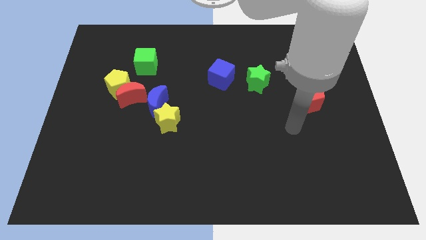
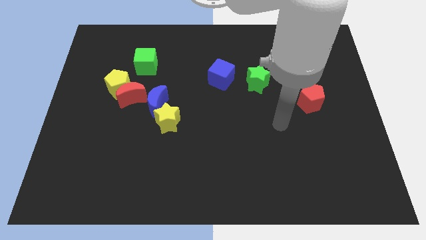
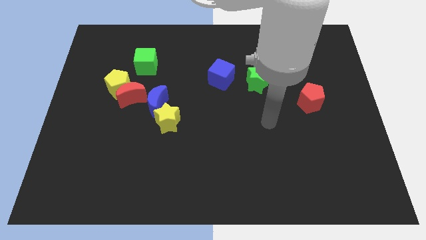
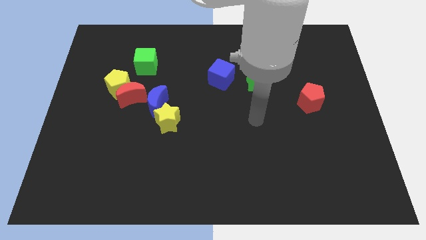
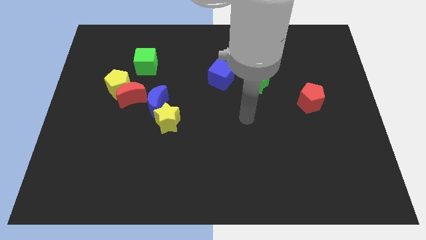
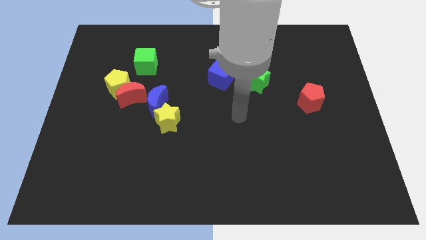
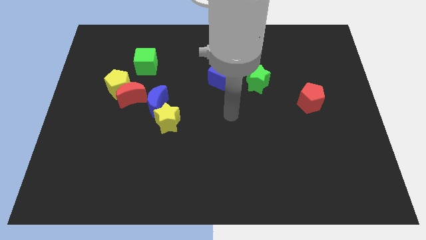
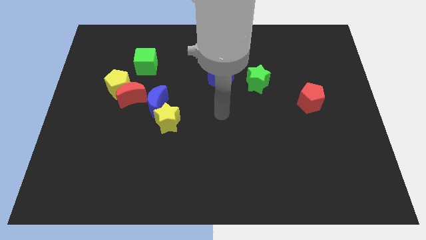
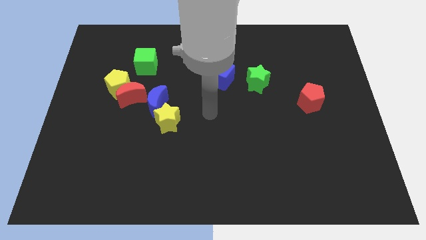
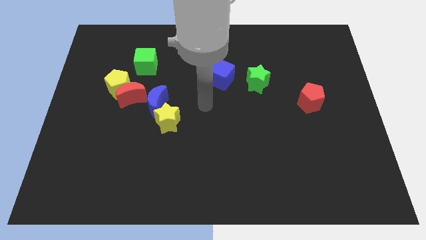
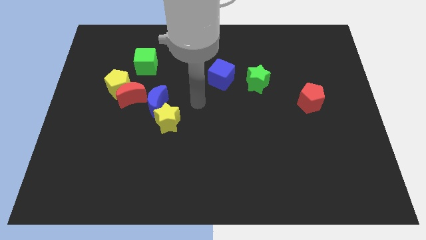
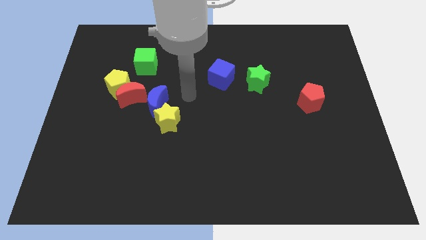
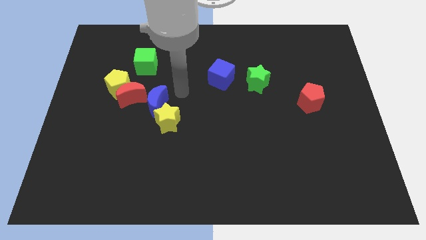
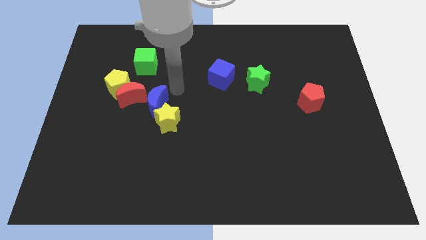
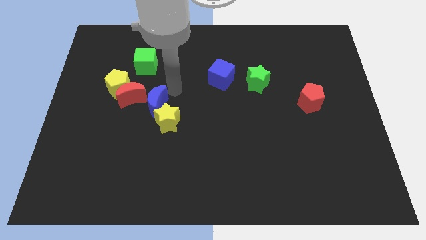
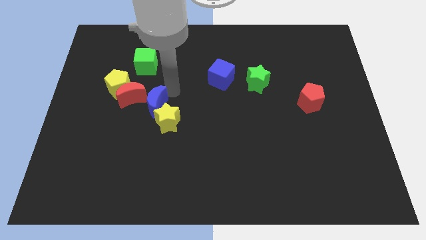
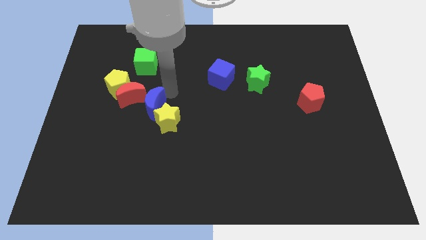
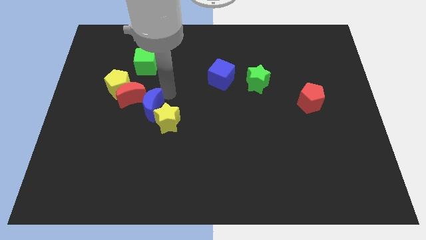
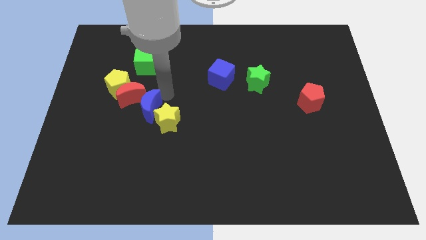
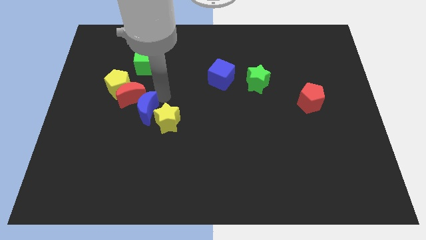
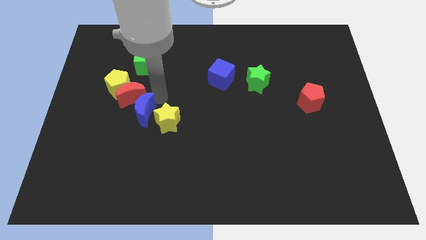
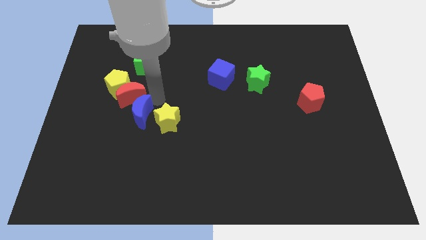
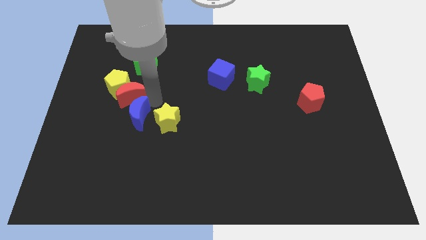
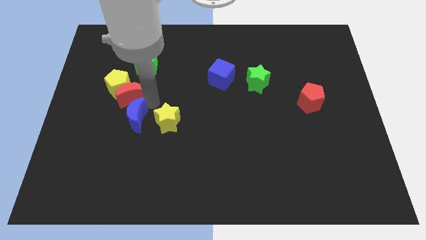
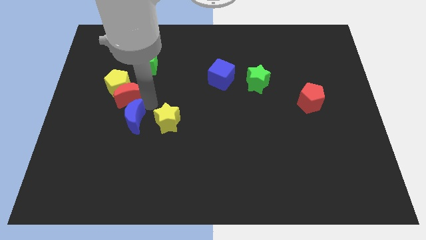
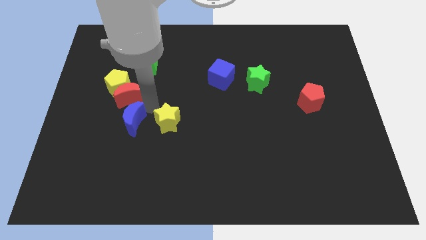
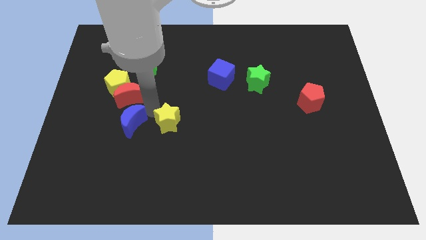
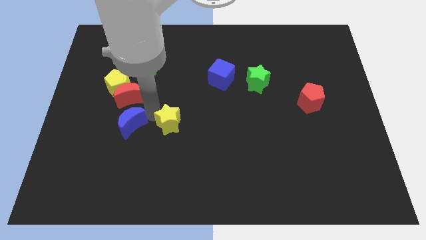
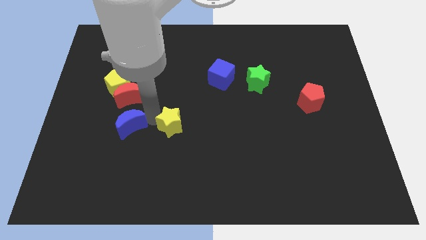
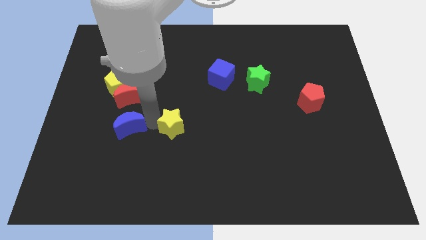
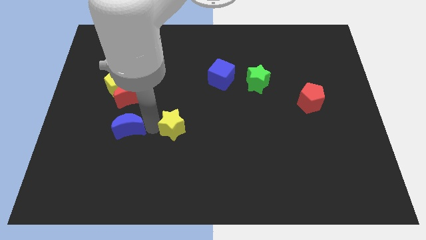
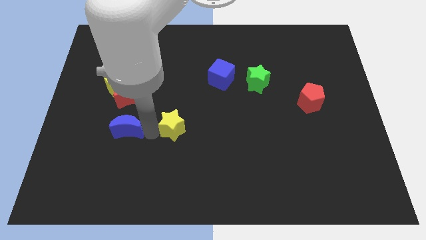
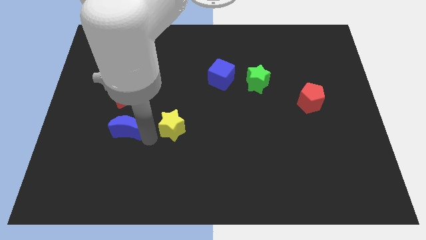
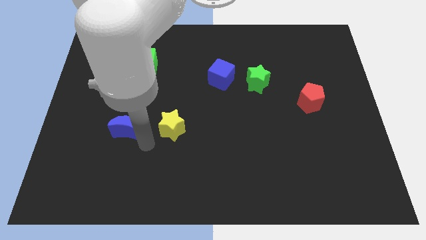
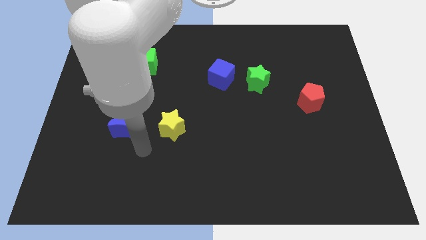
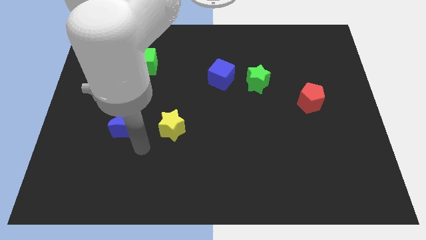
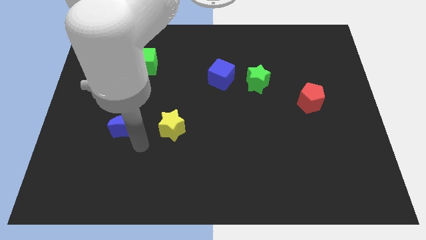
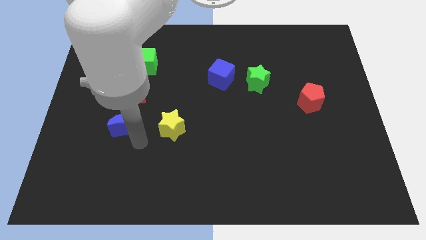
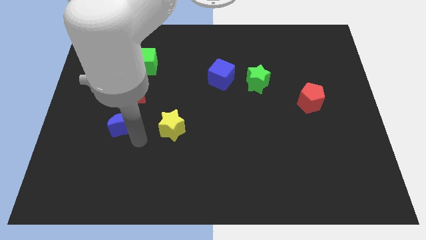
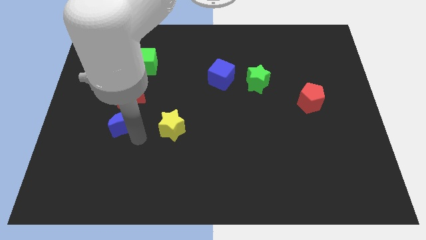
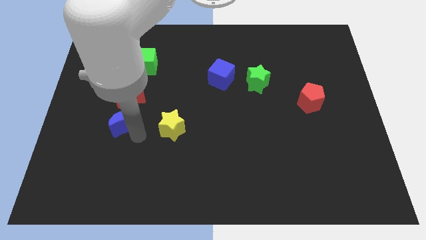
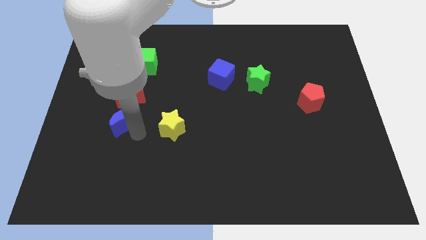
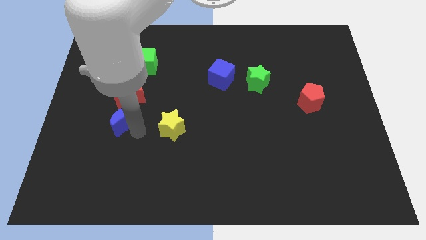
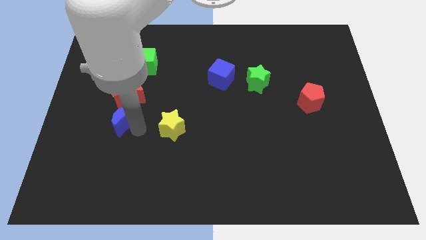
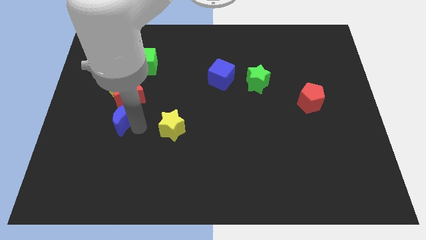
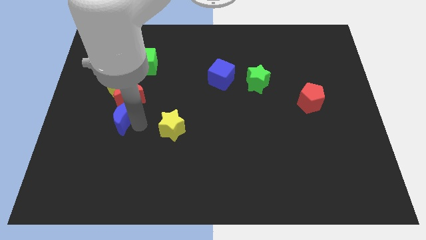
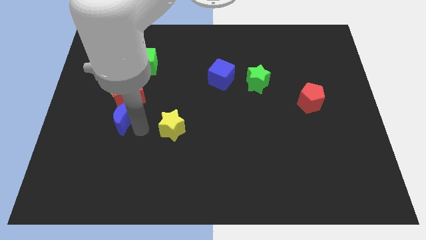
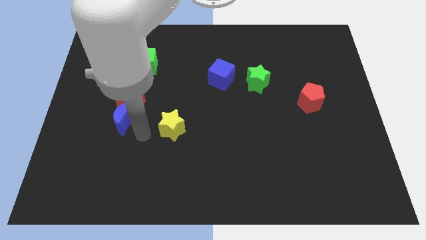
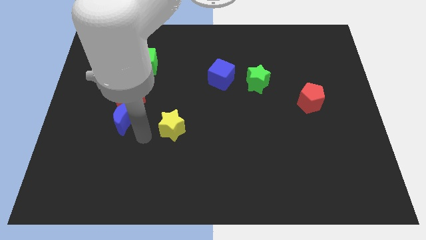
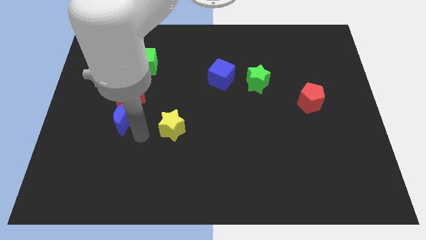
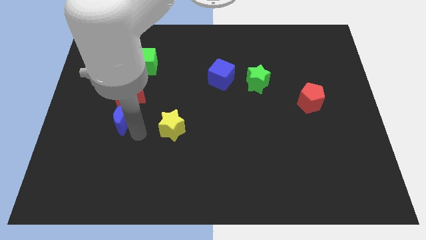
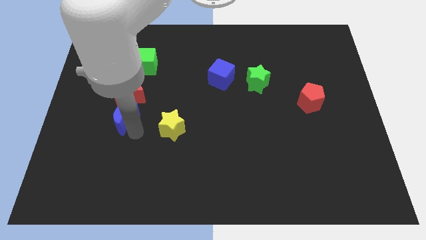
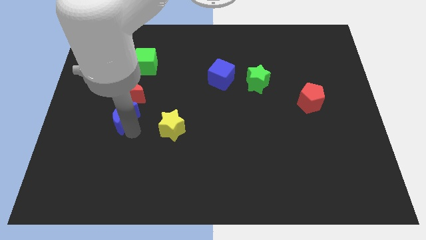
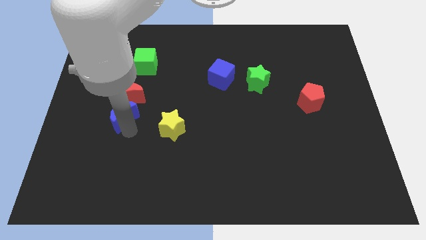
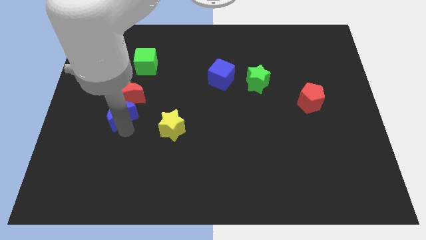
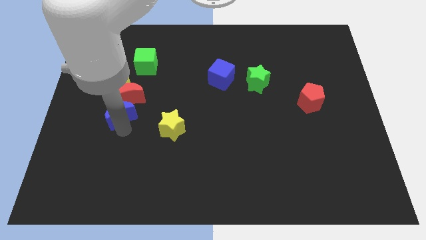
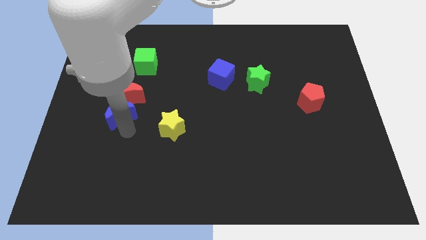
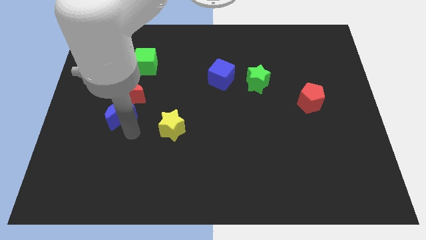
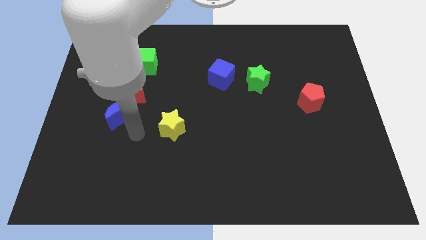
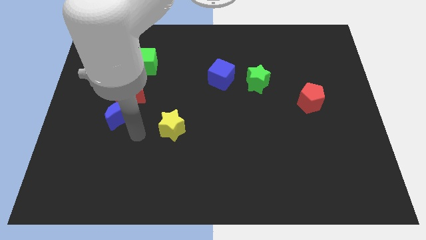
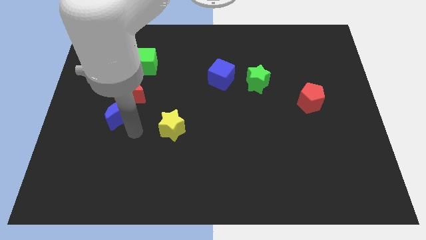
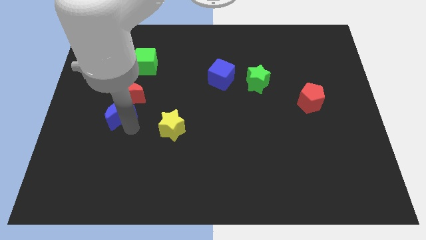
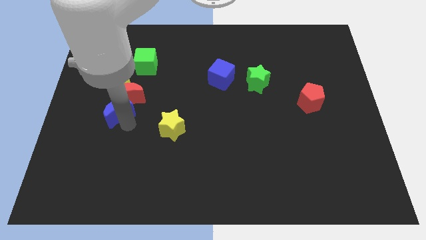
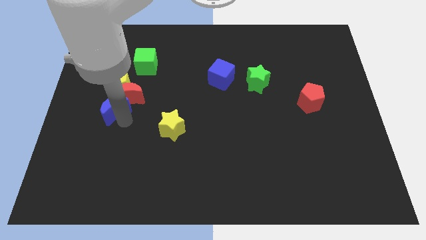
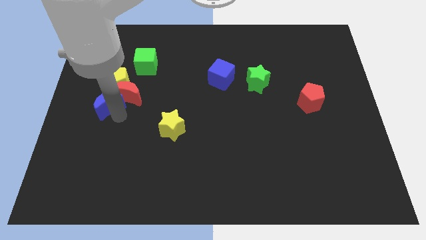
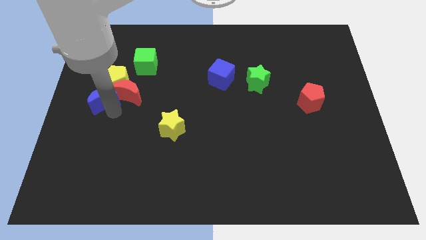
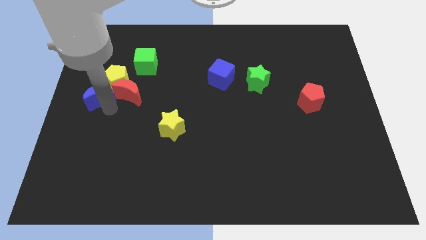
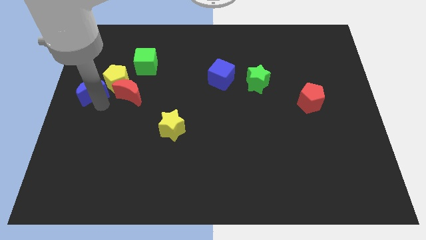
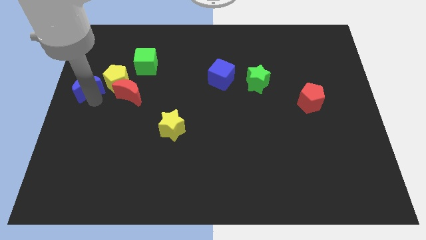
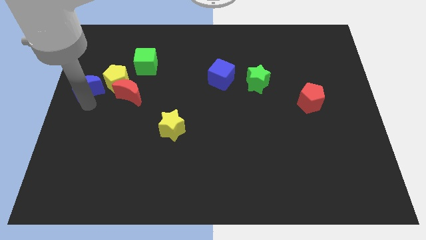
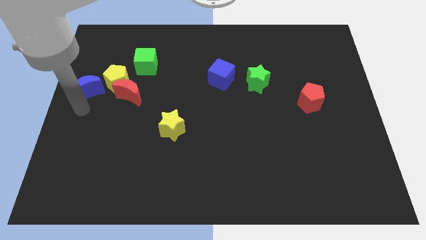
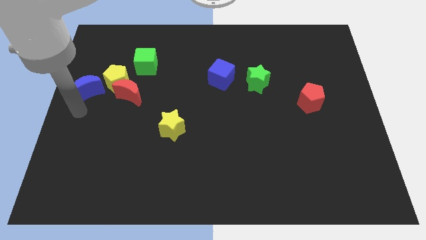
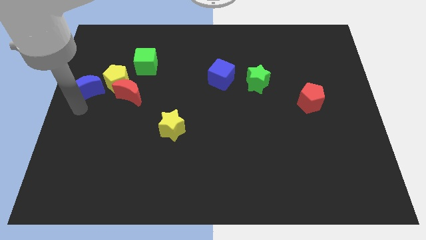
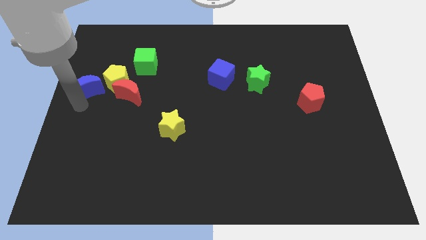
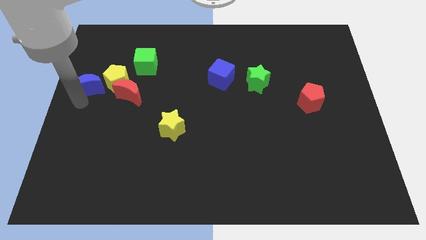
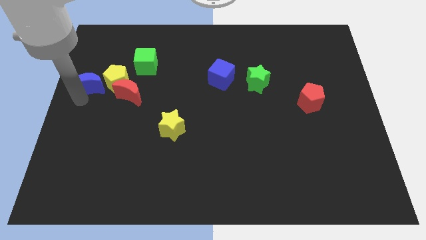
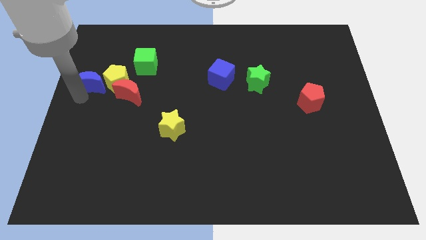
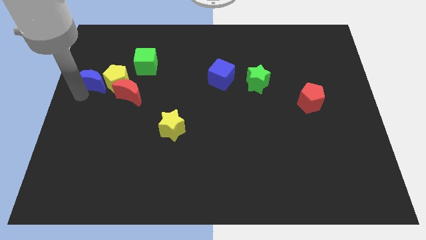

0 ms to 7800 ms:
put the blue moon to the top left of the yellow pentagon
